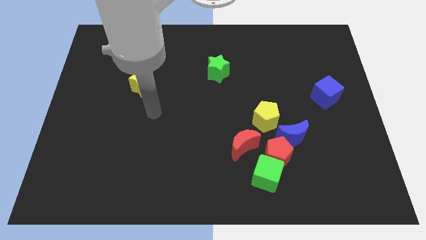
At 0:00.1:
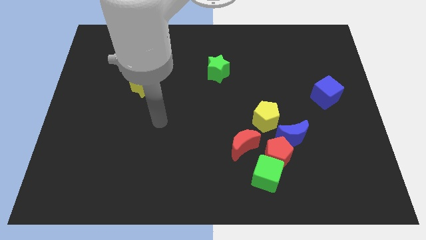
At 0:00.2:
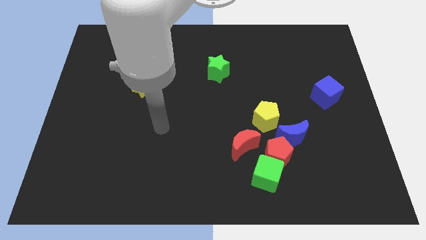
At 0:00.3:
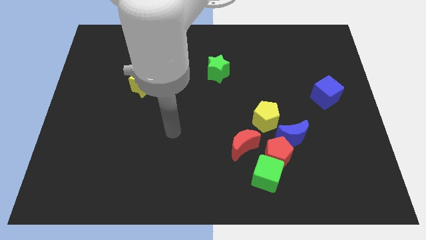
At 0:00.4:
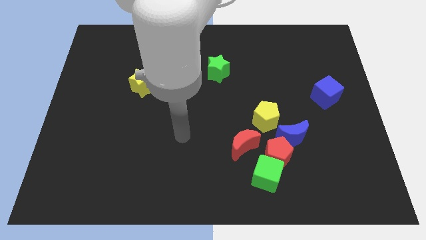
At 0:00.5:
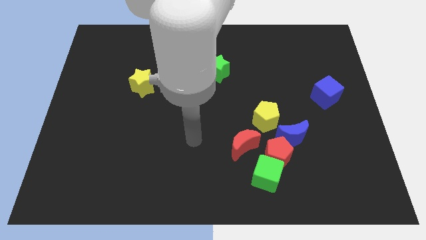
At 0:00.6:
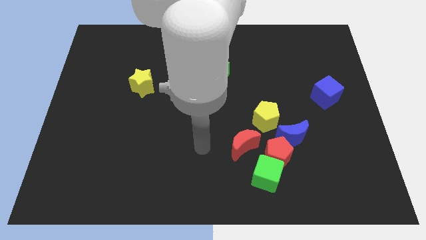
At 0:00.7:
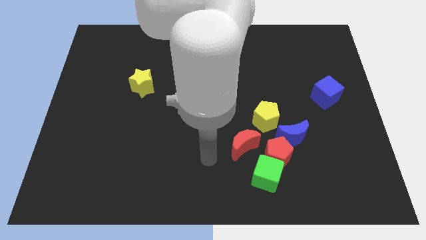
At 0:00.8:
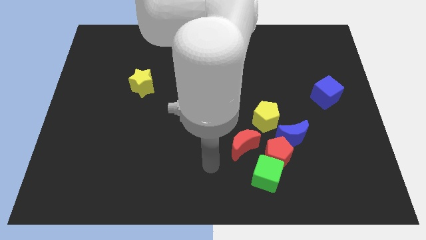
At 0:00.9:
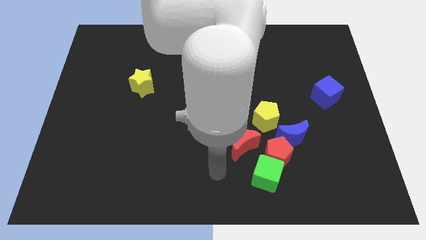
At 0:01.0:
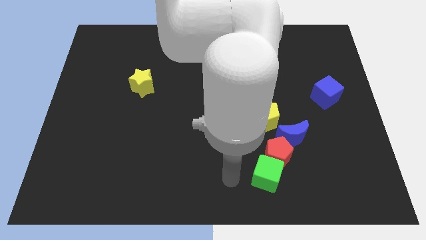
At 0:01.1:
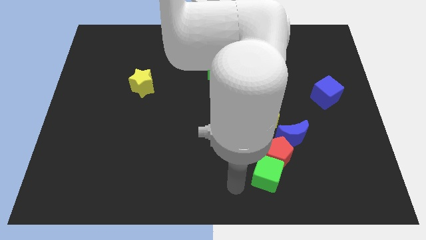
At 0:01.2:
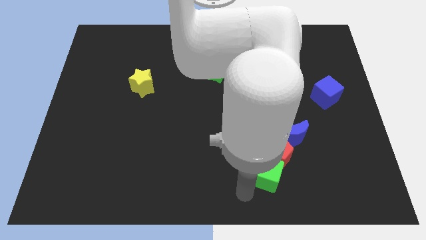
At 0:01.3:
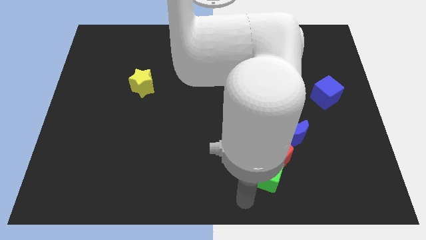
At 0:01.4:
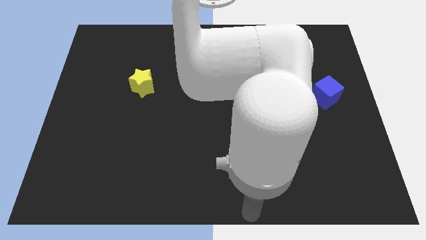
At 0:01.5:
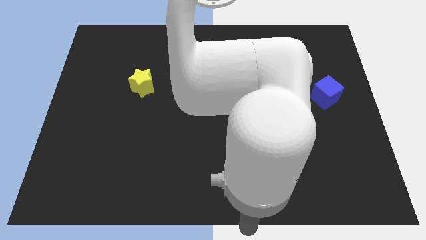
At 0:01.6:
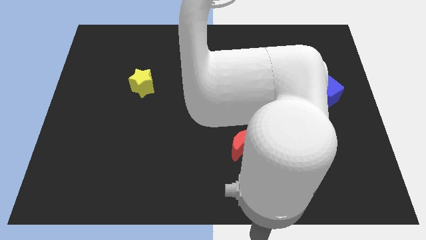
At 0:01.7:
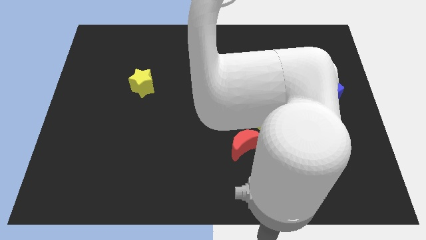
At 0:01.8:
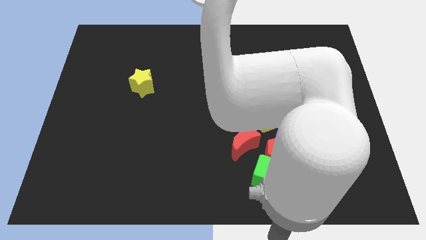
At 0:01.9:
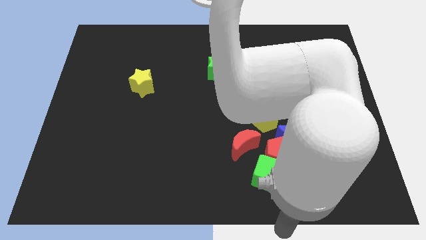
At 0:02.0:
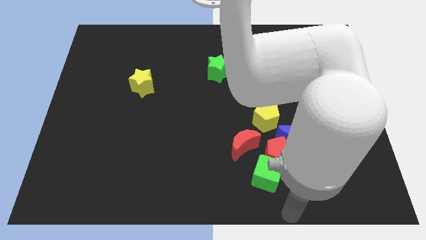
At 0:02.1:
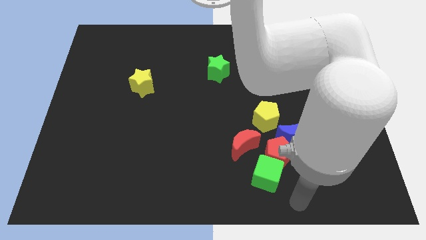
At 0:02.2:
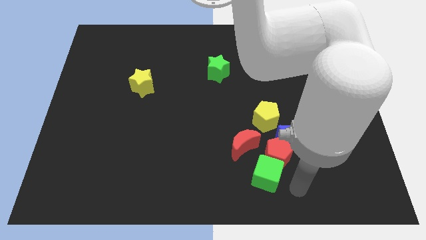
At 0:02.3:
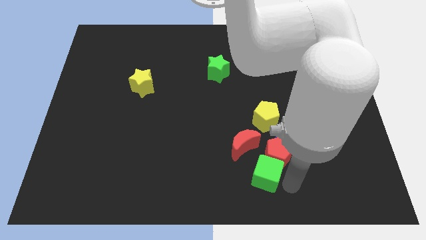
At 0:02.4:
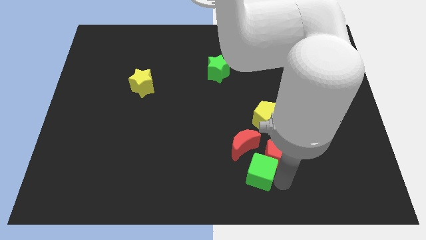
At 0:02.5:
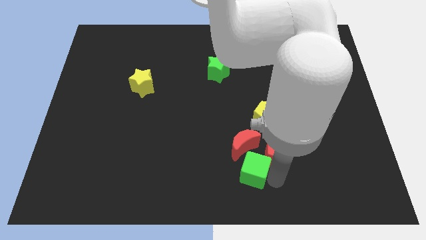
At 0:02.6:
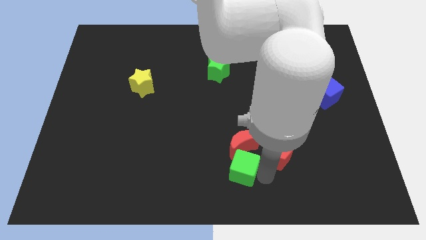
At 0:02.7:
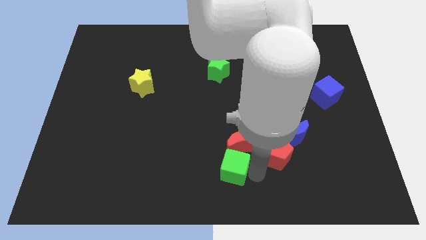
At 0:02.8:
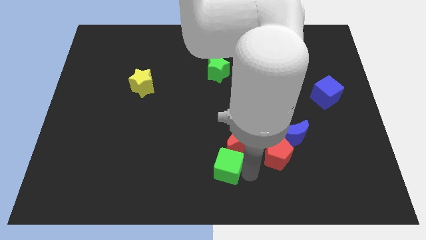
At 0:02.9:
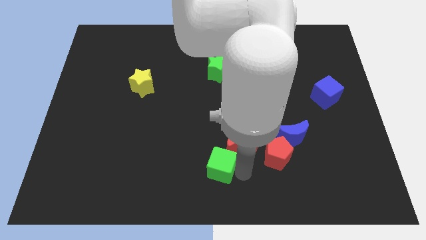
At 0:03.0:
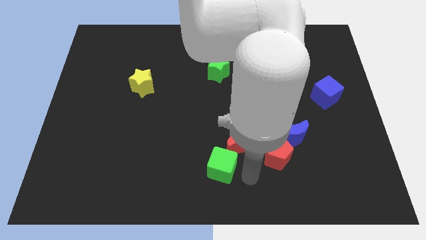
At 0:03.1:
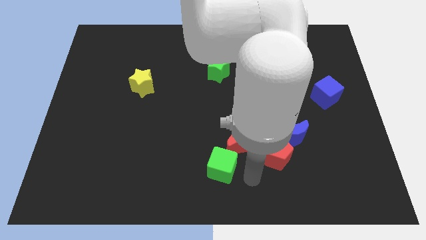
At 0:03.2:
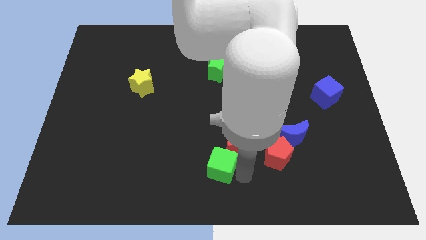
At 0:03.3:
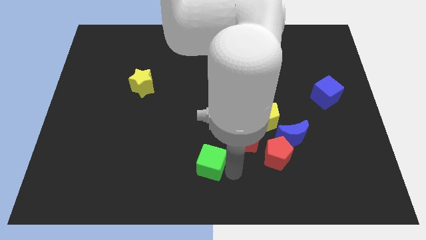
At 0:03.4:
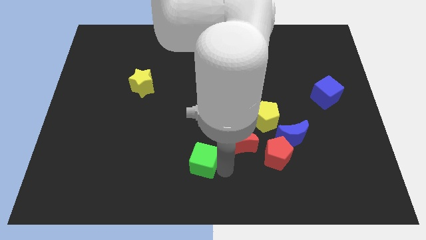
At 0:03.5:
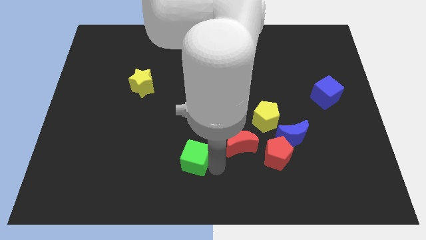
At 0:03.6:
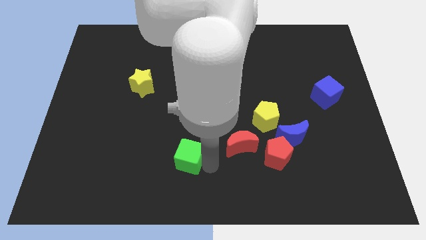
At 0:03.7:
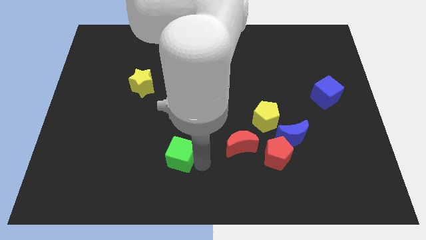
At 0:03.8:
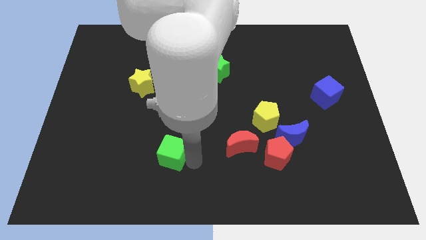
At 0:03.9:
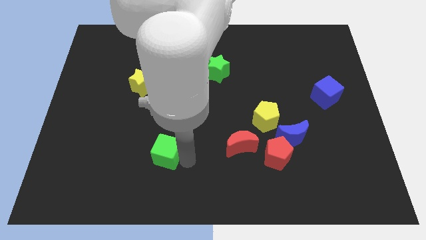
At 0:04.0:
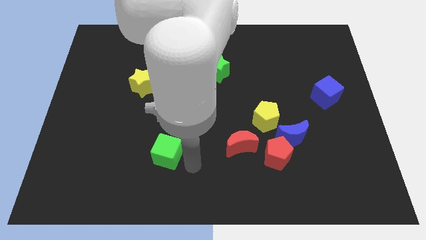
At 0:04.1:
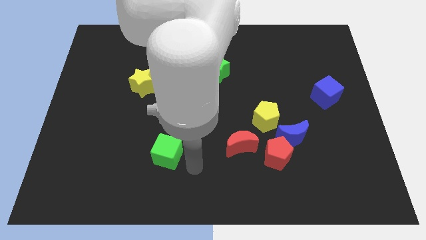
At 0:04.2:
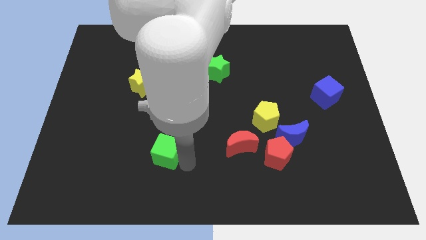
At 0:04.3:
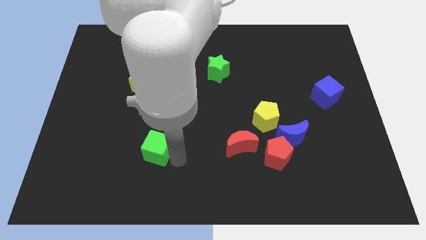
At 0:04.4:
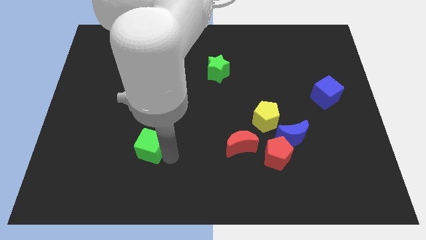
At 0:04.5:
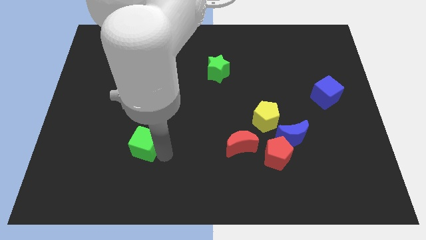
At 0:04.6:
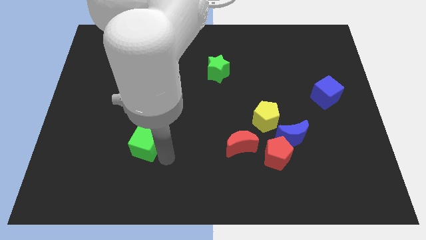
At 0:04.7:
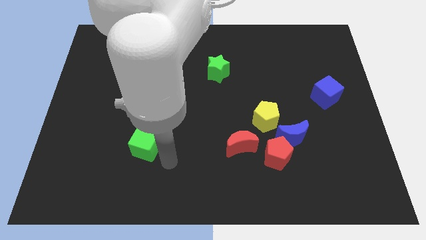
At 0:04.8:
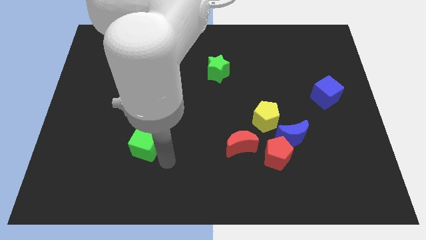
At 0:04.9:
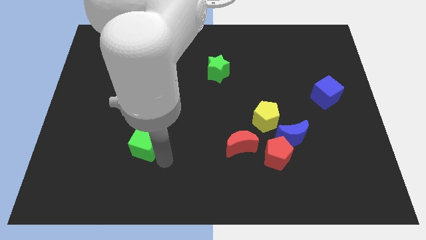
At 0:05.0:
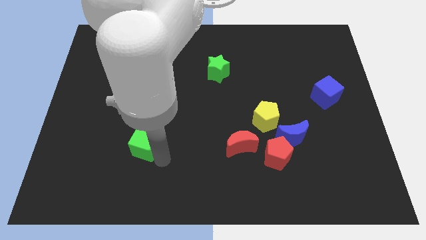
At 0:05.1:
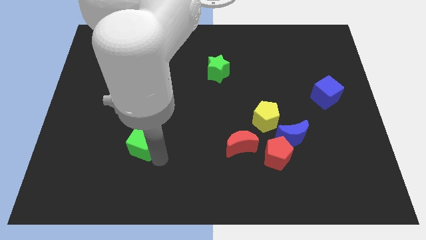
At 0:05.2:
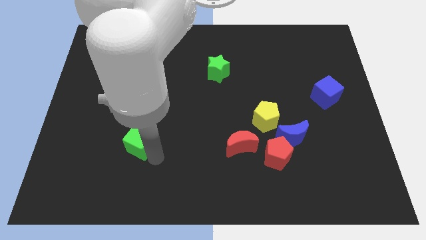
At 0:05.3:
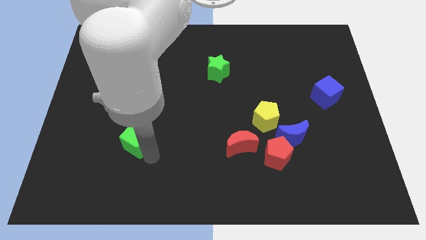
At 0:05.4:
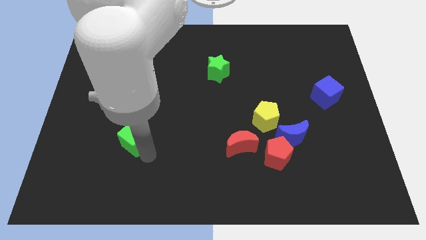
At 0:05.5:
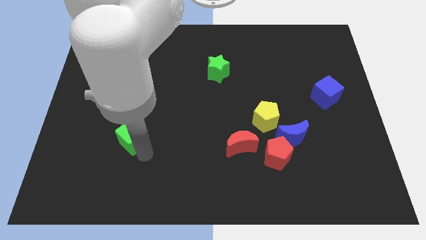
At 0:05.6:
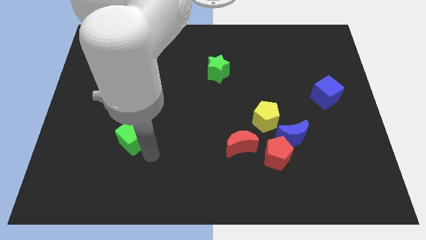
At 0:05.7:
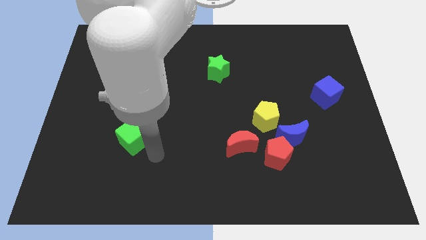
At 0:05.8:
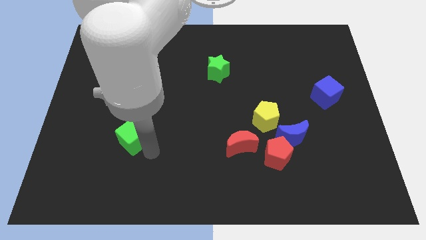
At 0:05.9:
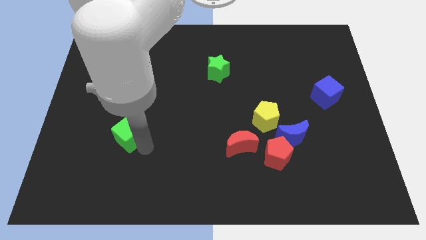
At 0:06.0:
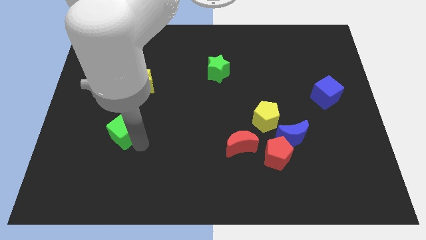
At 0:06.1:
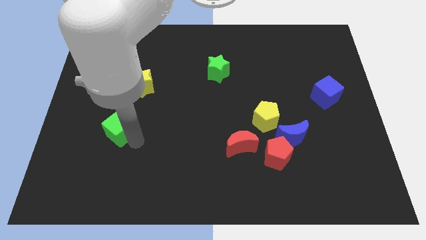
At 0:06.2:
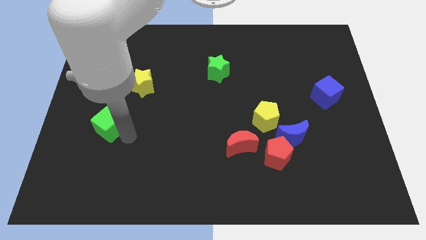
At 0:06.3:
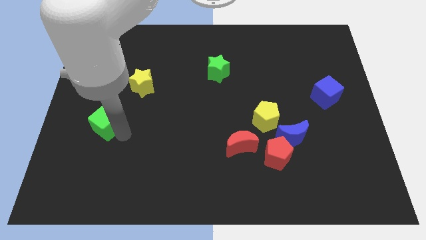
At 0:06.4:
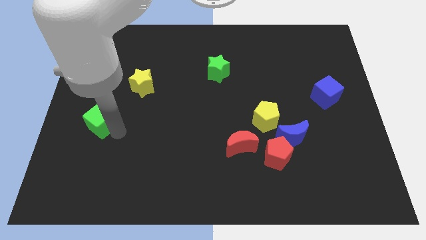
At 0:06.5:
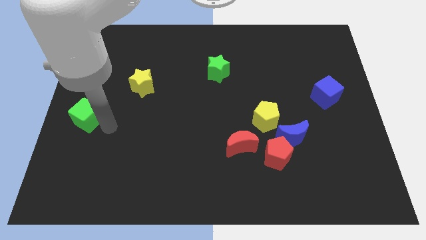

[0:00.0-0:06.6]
push the green cube to the center left

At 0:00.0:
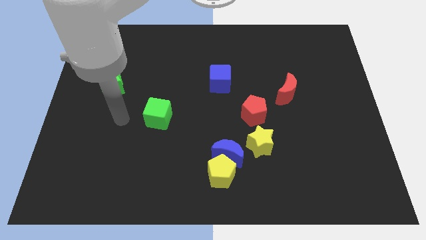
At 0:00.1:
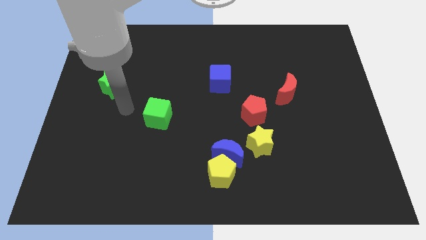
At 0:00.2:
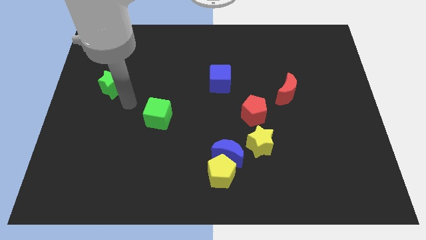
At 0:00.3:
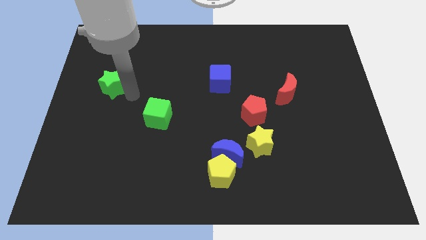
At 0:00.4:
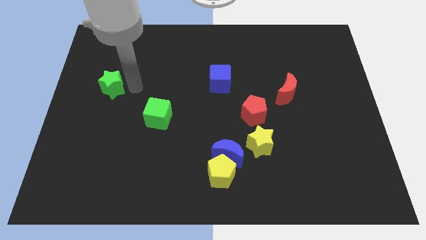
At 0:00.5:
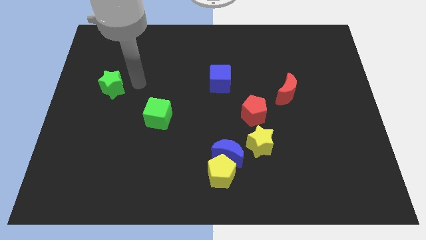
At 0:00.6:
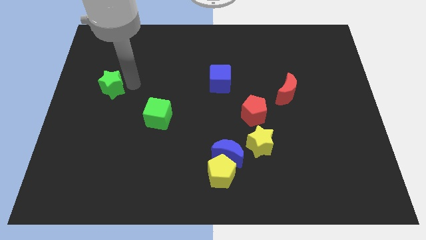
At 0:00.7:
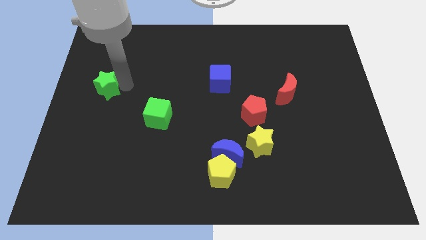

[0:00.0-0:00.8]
move the green star to the left side of the board

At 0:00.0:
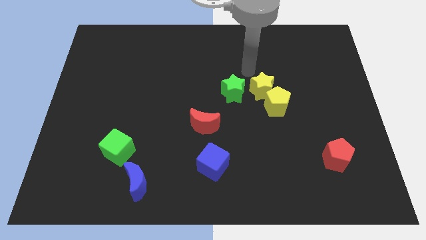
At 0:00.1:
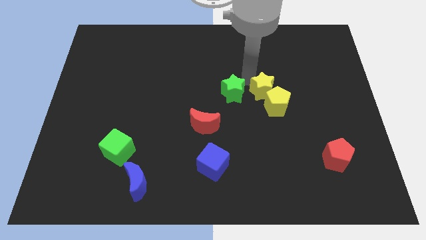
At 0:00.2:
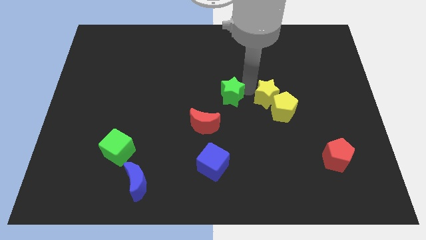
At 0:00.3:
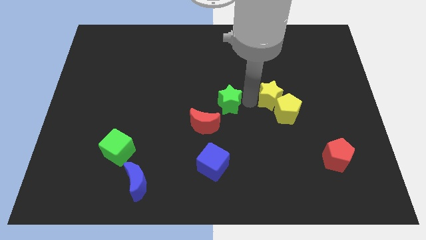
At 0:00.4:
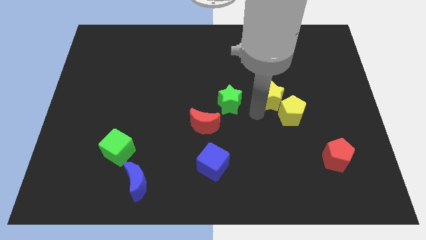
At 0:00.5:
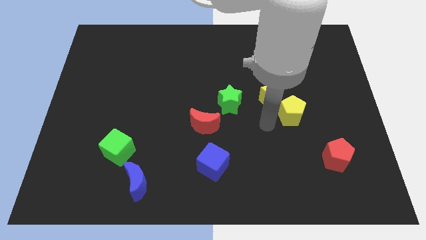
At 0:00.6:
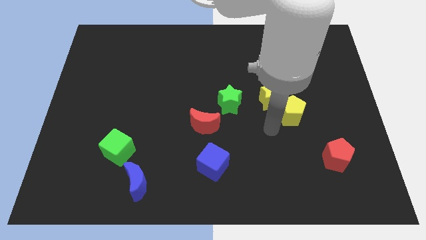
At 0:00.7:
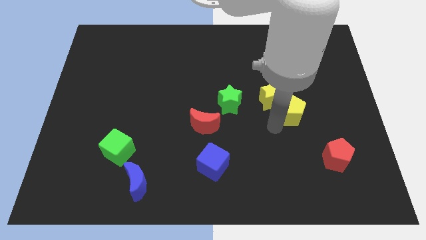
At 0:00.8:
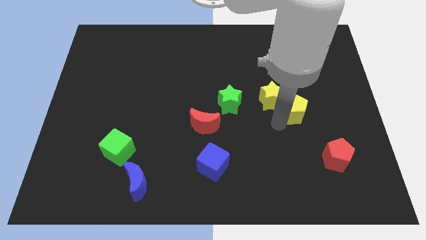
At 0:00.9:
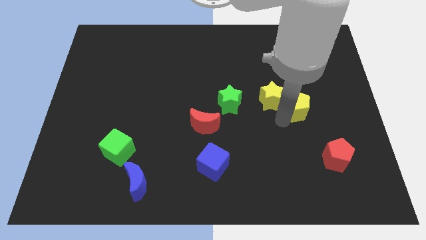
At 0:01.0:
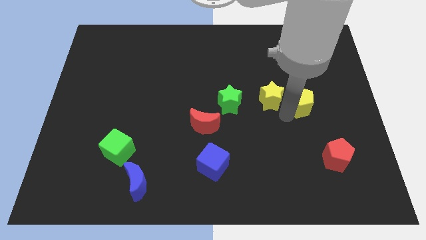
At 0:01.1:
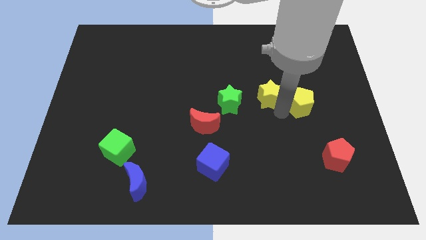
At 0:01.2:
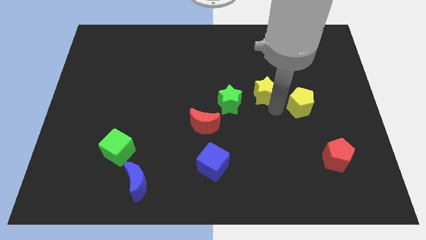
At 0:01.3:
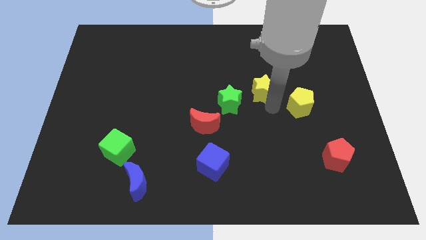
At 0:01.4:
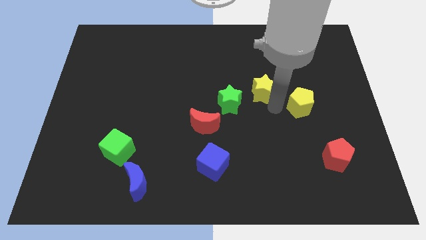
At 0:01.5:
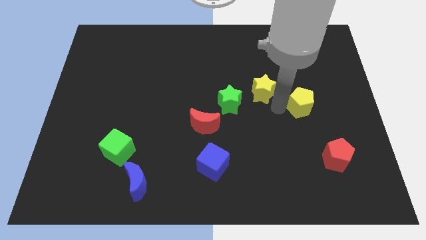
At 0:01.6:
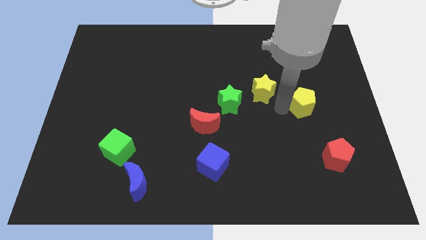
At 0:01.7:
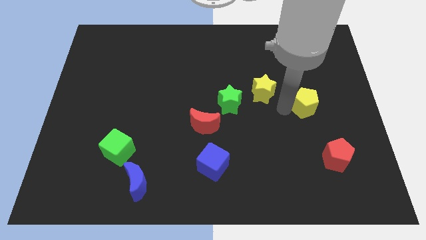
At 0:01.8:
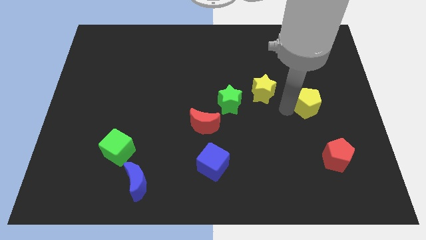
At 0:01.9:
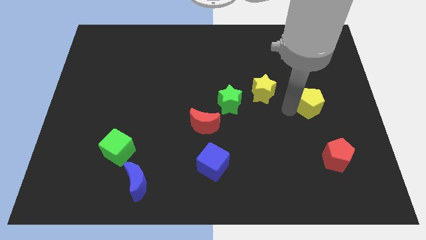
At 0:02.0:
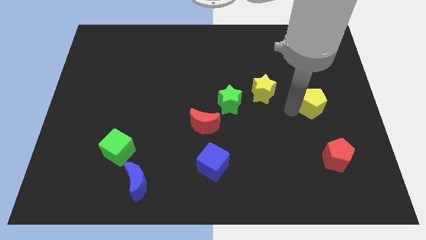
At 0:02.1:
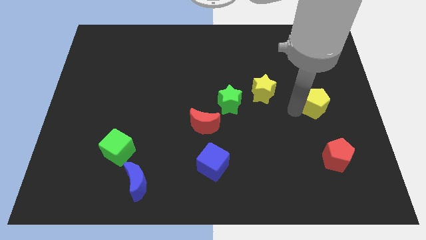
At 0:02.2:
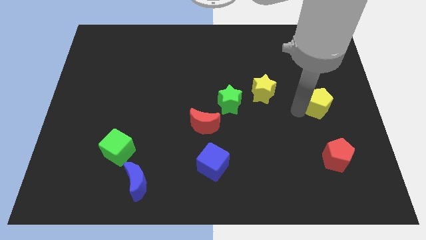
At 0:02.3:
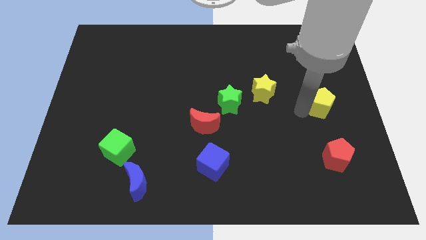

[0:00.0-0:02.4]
put the yellow pentagon to the center right
